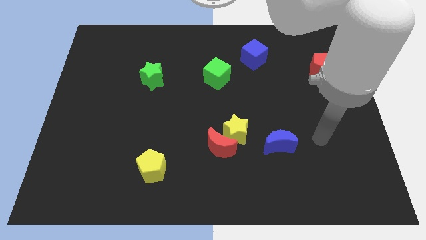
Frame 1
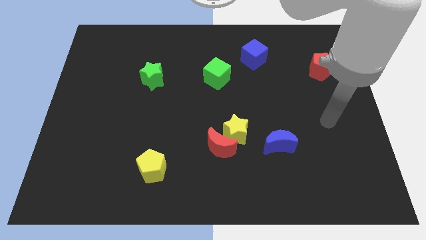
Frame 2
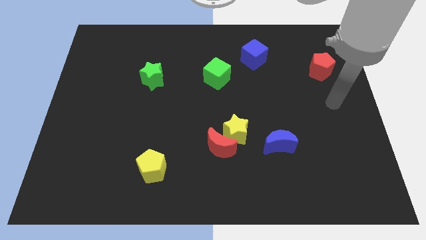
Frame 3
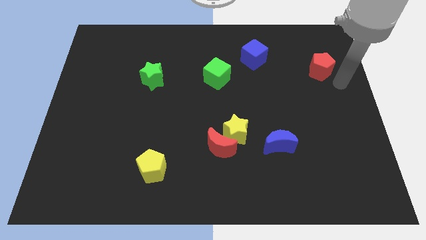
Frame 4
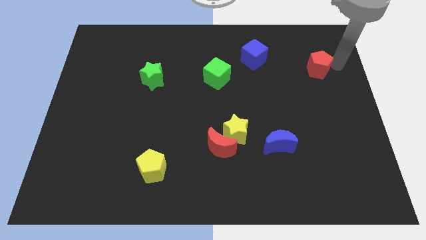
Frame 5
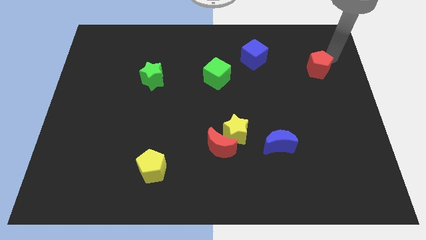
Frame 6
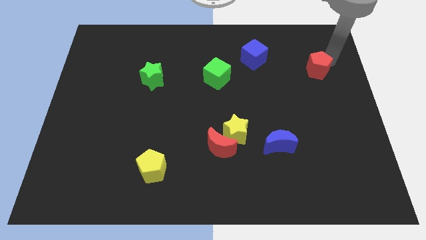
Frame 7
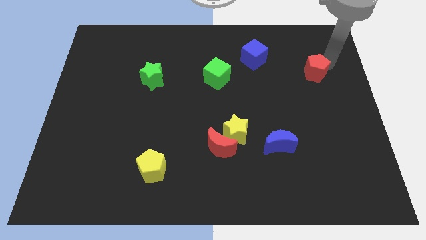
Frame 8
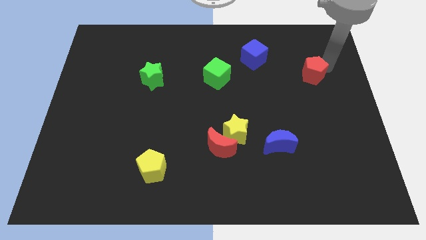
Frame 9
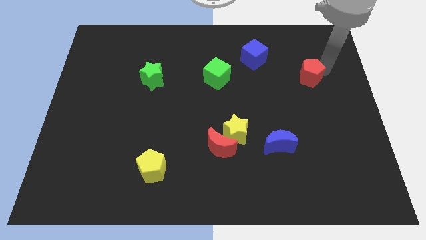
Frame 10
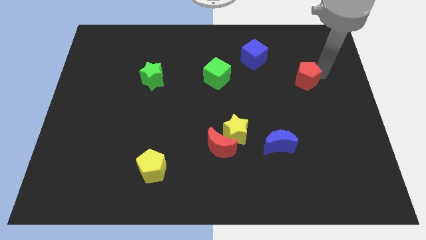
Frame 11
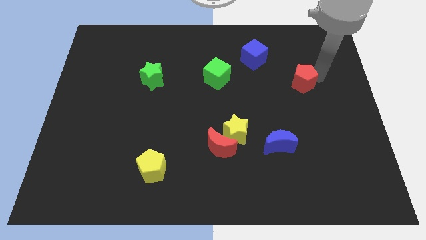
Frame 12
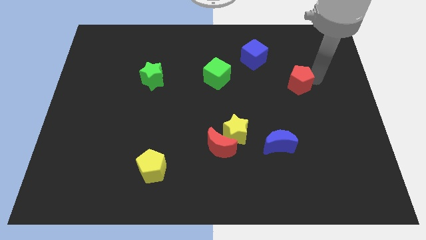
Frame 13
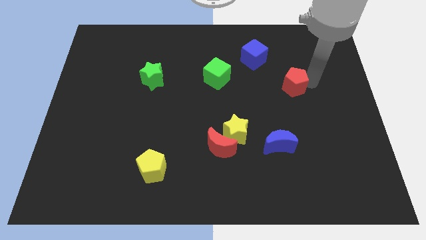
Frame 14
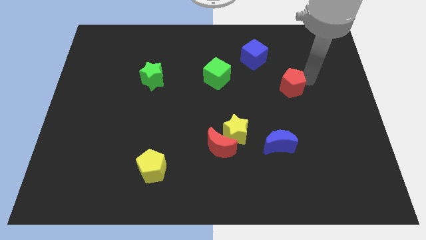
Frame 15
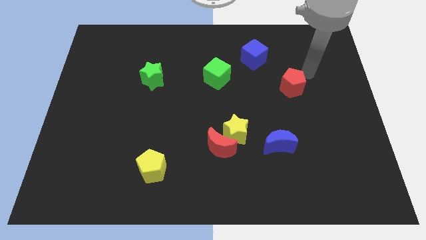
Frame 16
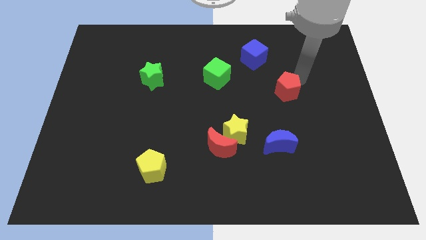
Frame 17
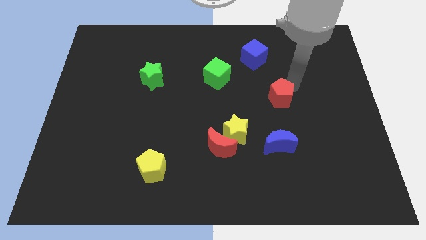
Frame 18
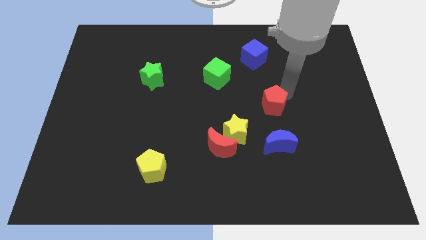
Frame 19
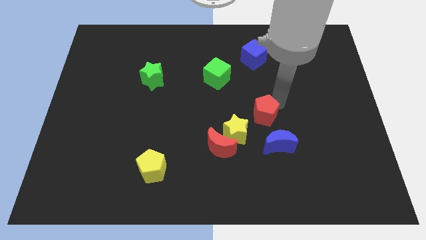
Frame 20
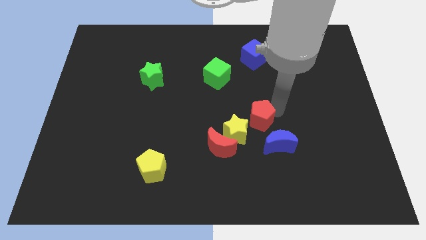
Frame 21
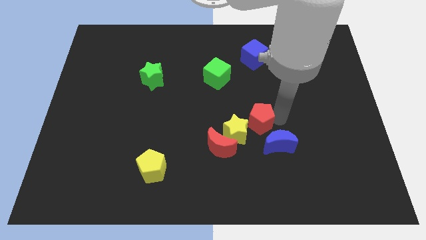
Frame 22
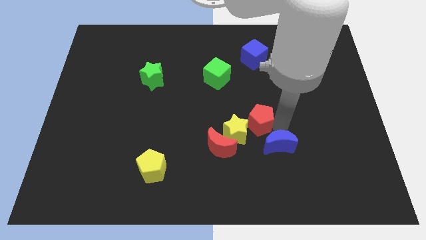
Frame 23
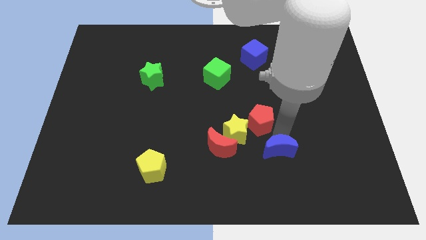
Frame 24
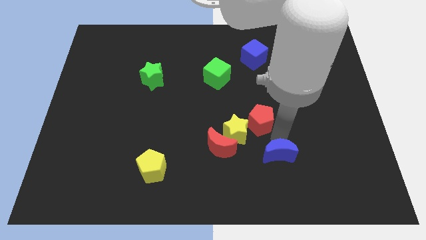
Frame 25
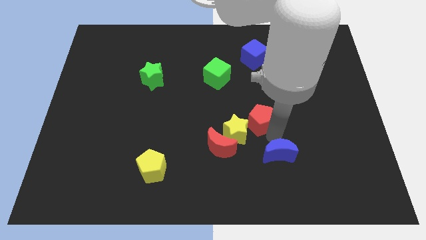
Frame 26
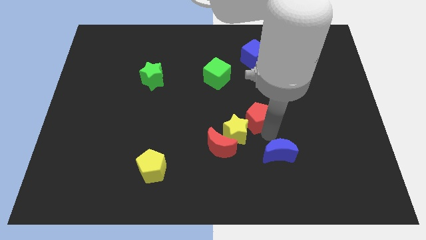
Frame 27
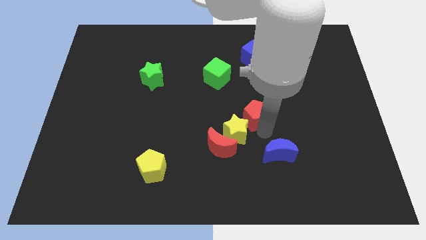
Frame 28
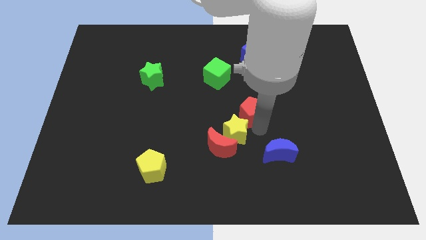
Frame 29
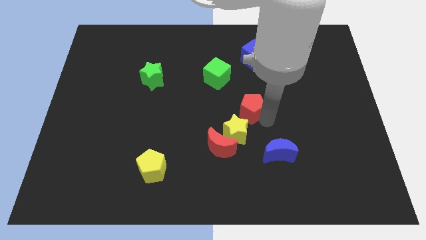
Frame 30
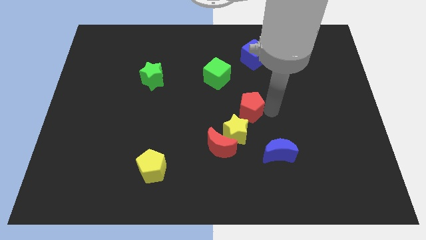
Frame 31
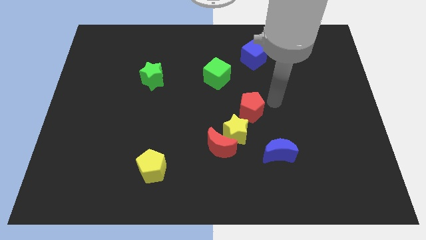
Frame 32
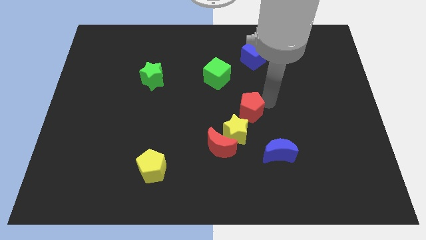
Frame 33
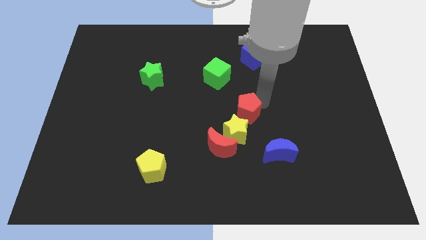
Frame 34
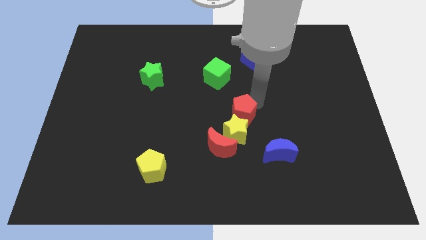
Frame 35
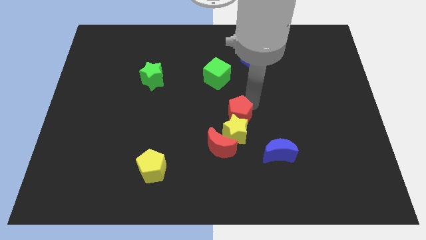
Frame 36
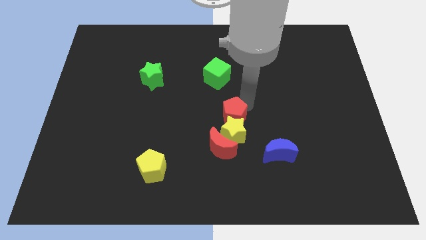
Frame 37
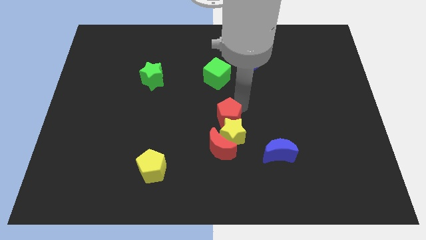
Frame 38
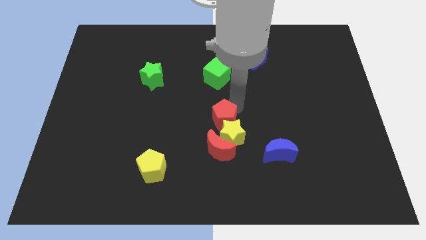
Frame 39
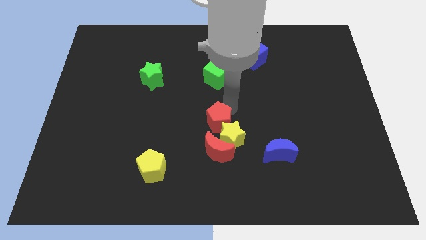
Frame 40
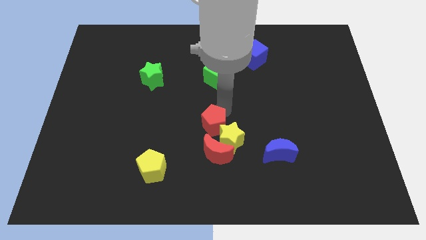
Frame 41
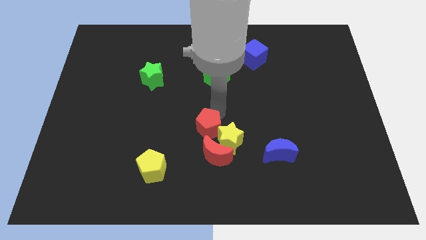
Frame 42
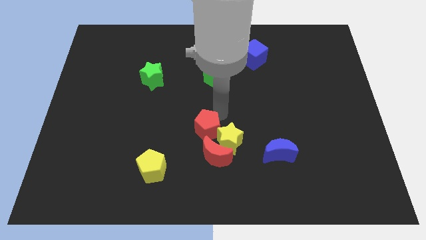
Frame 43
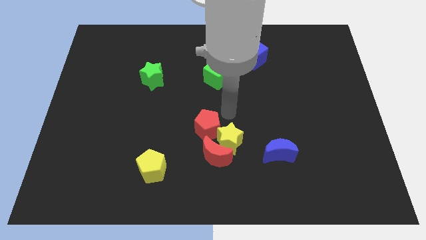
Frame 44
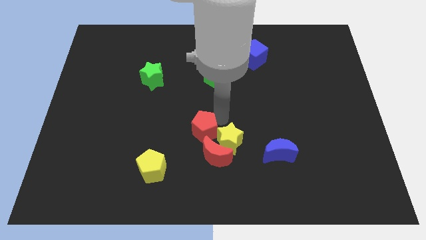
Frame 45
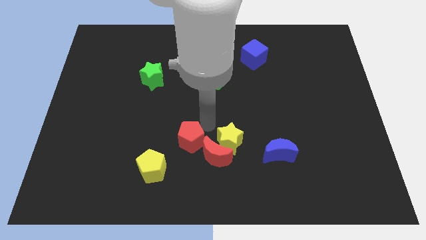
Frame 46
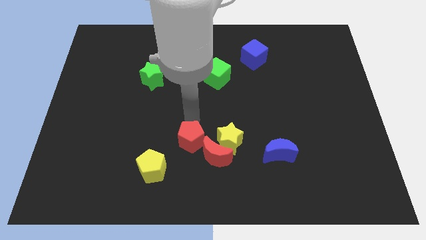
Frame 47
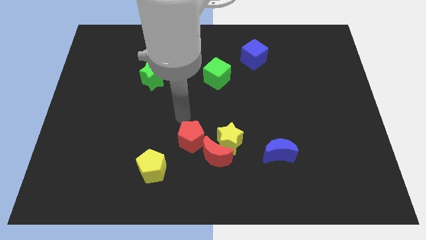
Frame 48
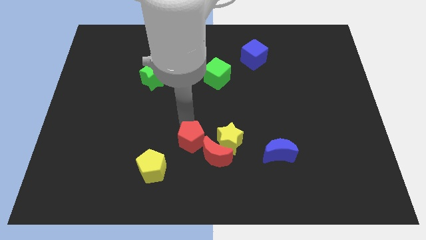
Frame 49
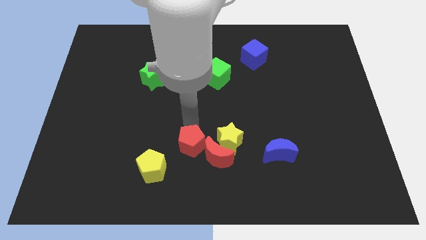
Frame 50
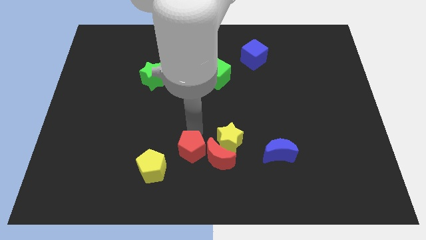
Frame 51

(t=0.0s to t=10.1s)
push the red pentagon to the right side of the yellow pentagon

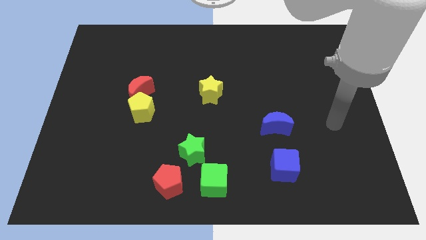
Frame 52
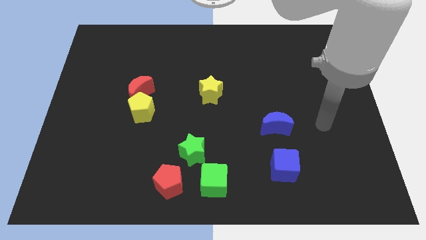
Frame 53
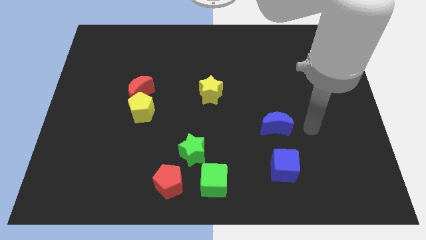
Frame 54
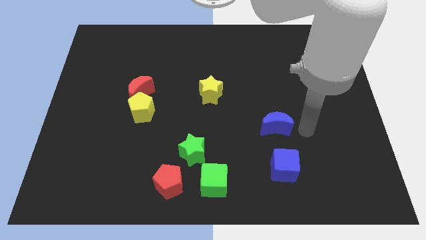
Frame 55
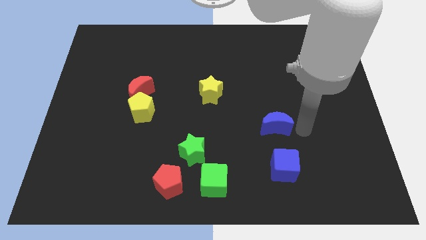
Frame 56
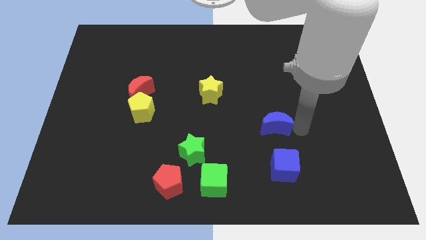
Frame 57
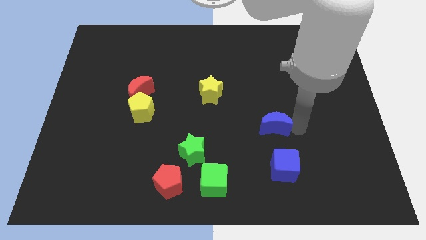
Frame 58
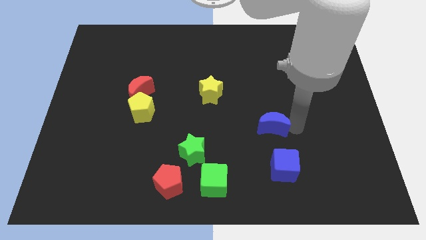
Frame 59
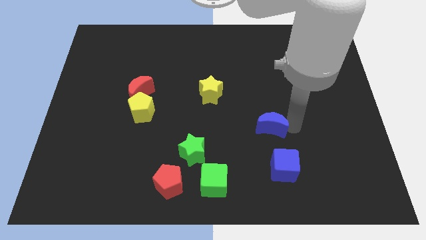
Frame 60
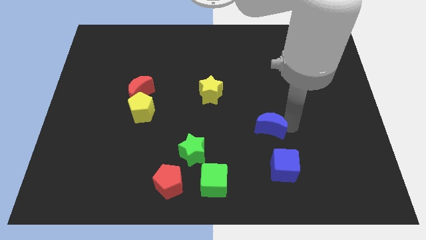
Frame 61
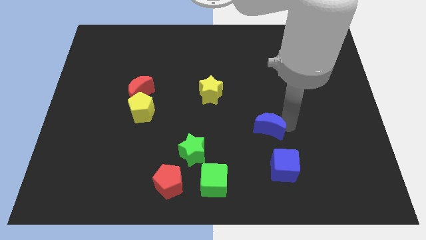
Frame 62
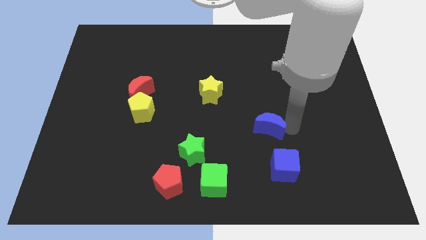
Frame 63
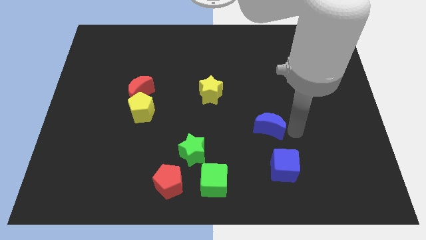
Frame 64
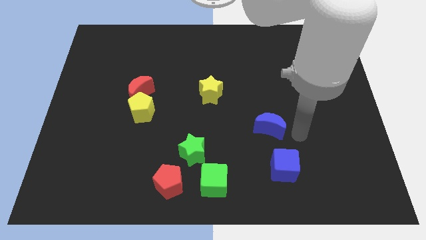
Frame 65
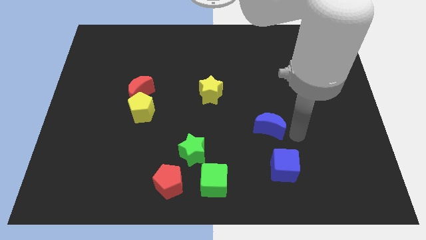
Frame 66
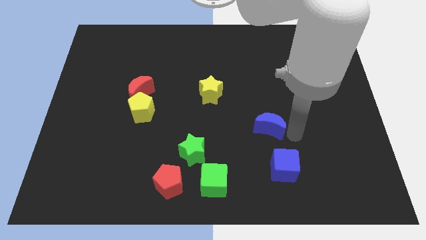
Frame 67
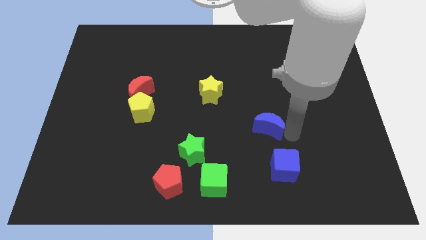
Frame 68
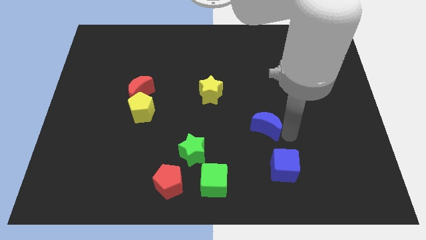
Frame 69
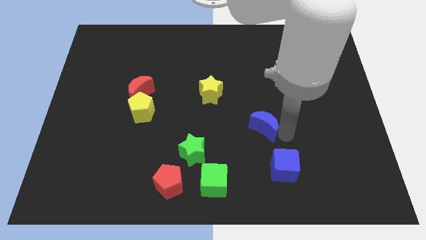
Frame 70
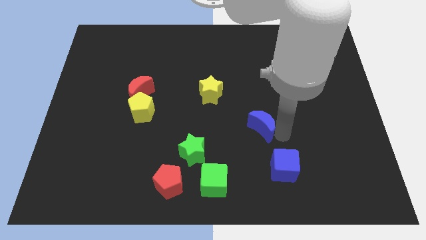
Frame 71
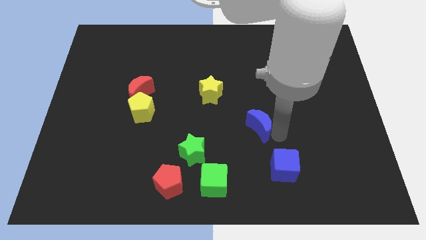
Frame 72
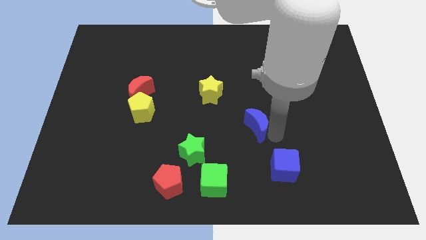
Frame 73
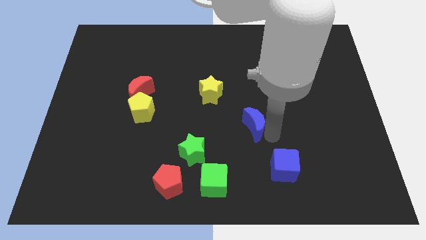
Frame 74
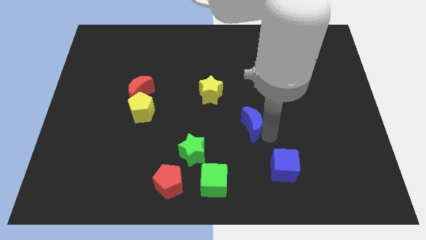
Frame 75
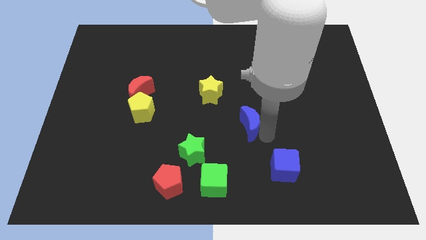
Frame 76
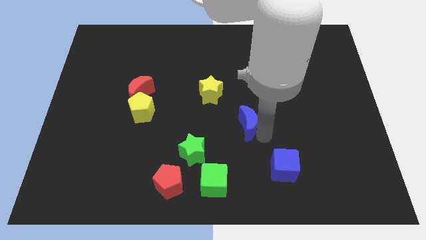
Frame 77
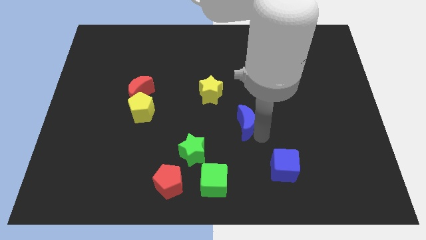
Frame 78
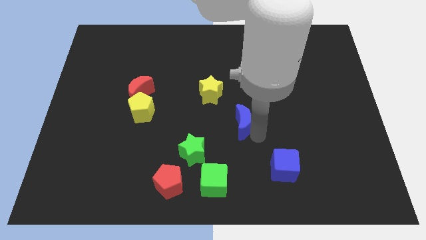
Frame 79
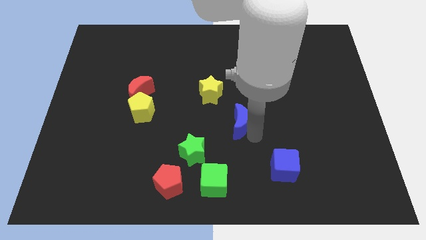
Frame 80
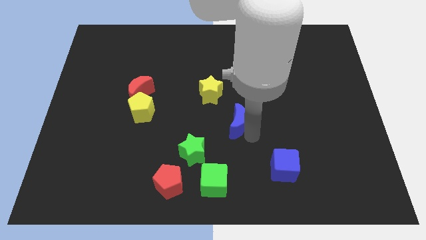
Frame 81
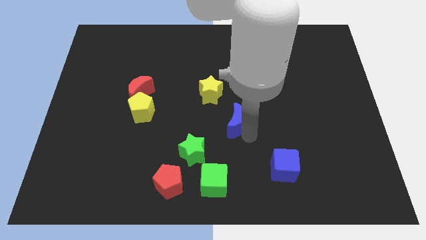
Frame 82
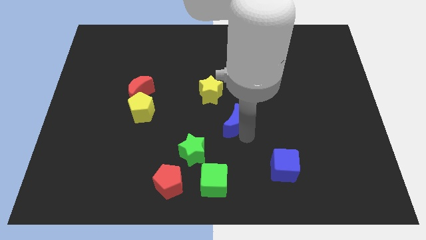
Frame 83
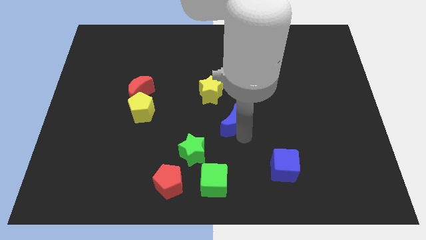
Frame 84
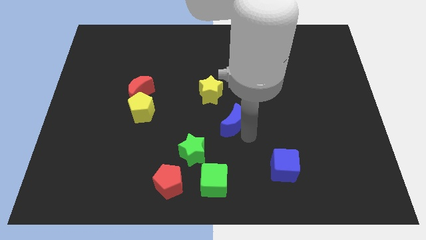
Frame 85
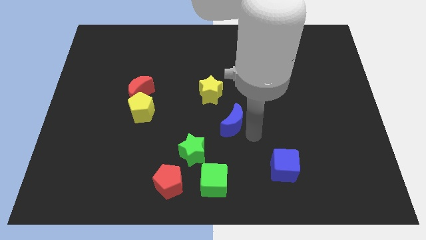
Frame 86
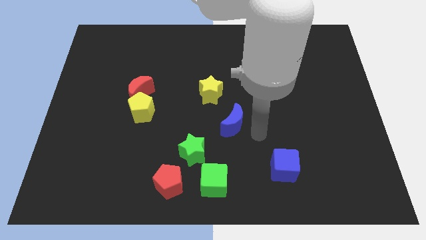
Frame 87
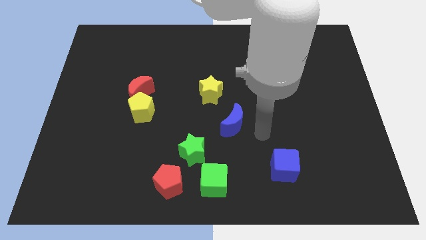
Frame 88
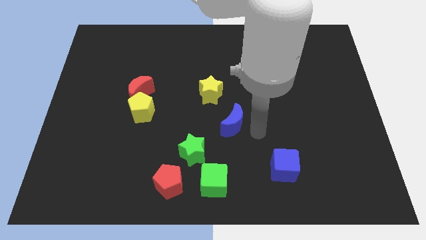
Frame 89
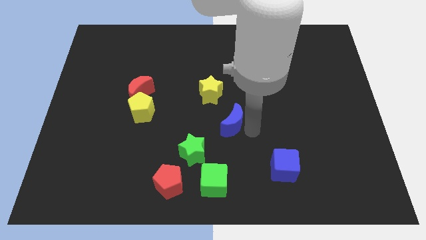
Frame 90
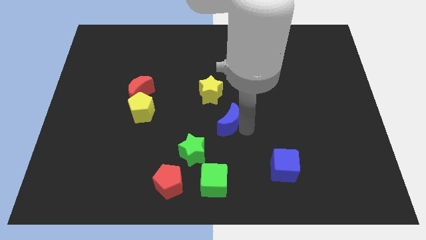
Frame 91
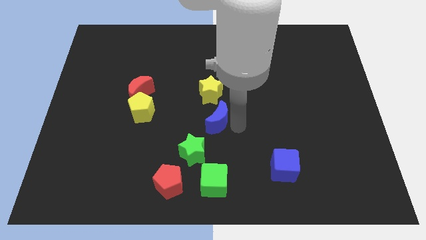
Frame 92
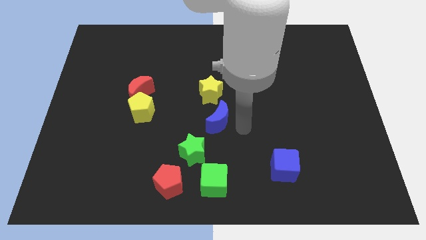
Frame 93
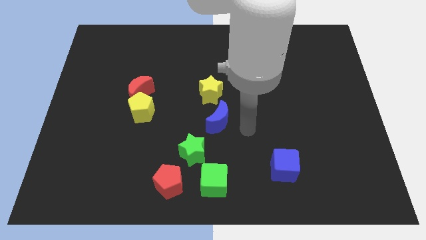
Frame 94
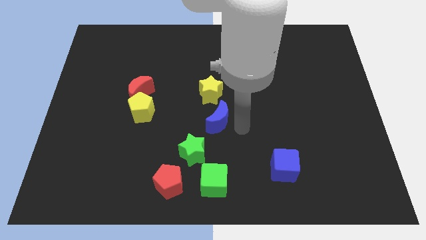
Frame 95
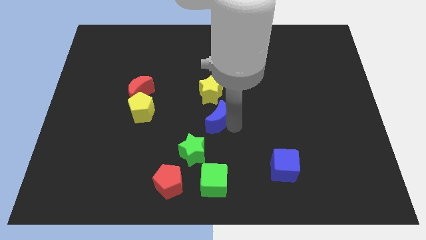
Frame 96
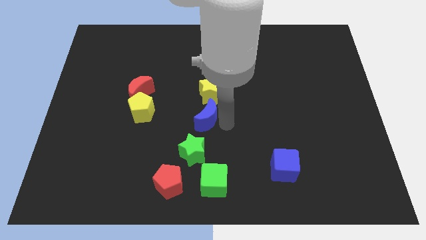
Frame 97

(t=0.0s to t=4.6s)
move the blue moon above the green star
